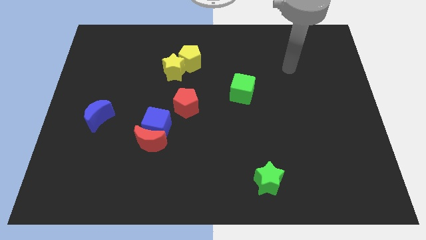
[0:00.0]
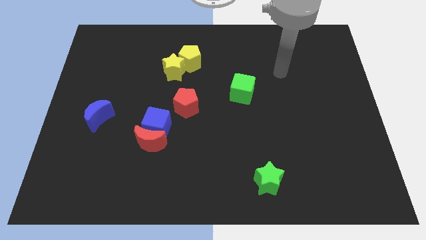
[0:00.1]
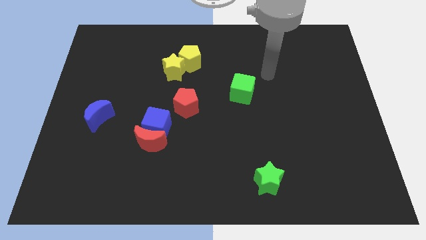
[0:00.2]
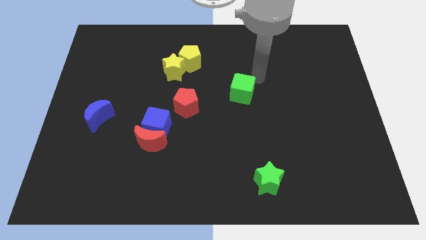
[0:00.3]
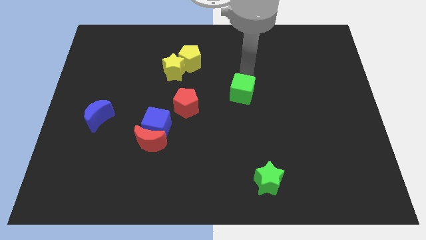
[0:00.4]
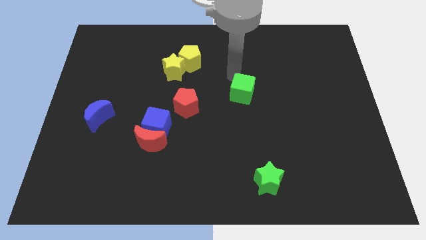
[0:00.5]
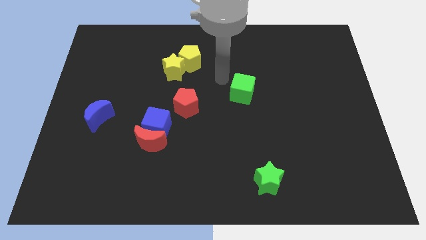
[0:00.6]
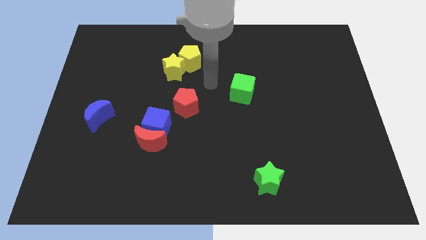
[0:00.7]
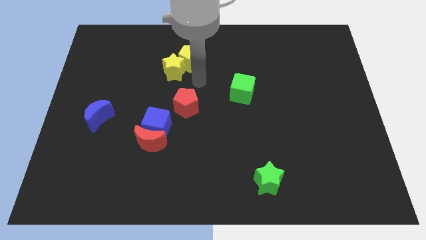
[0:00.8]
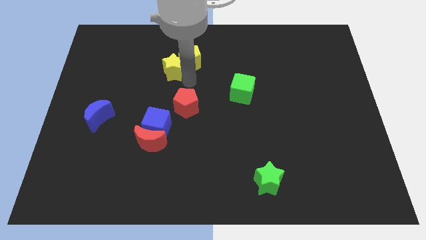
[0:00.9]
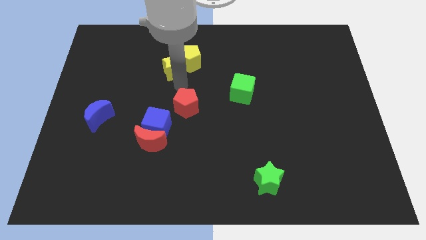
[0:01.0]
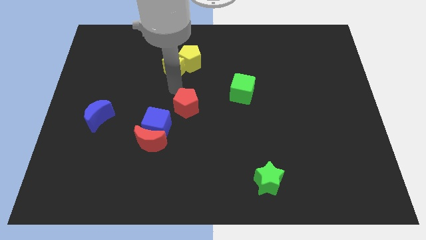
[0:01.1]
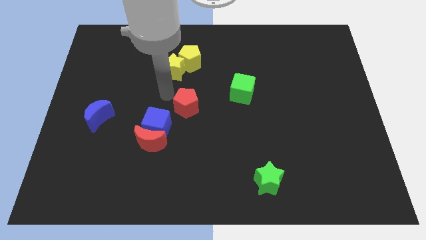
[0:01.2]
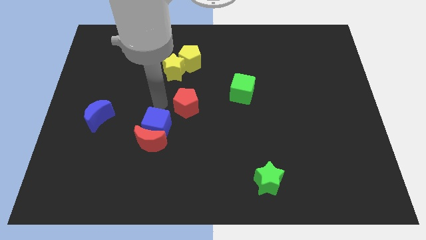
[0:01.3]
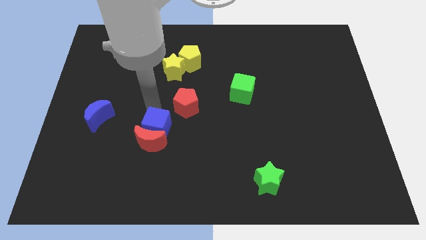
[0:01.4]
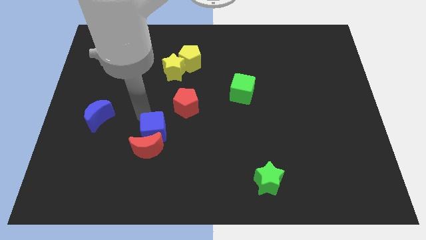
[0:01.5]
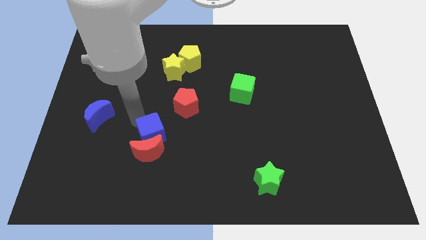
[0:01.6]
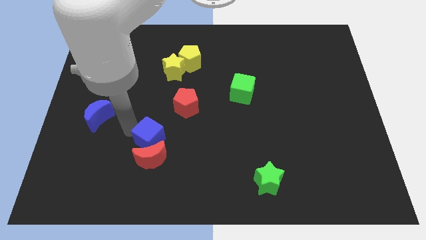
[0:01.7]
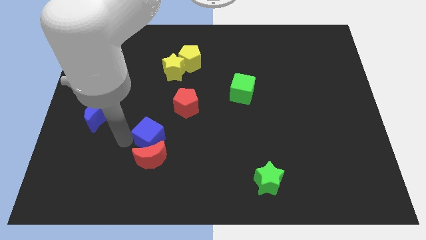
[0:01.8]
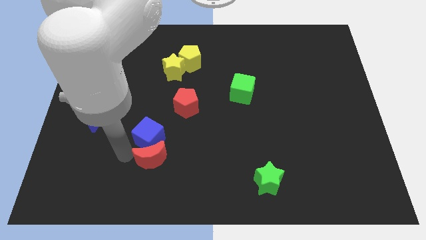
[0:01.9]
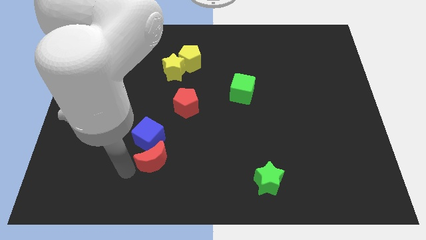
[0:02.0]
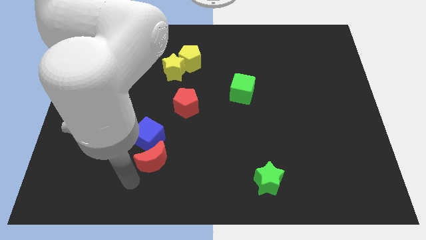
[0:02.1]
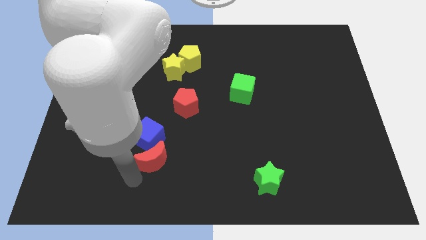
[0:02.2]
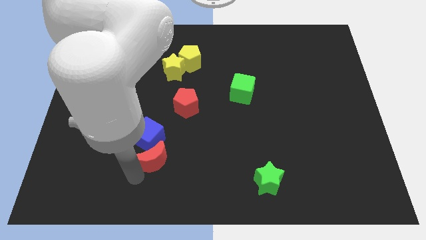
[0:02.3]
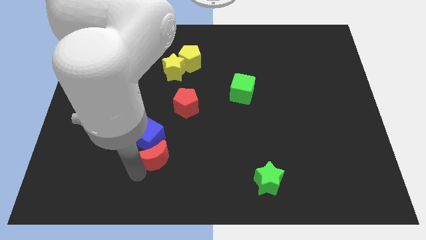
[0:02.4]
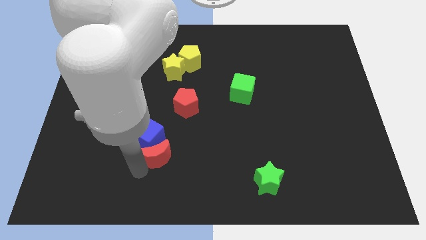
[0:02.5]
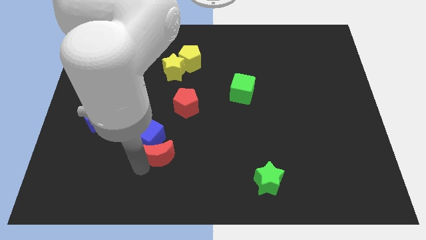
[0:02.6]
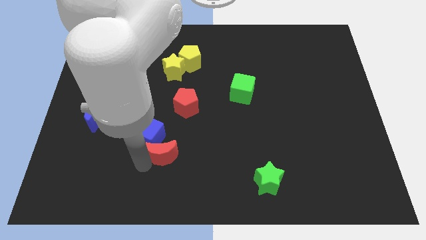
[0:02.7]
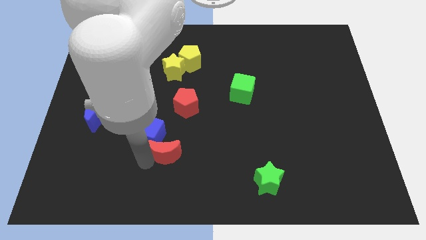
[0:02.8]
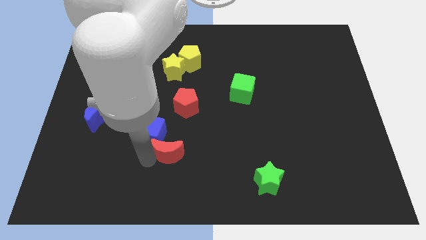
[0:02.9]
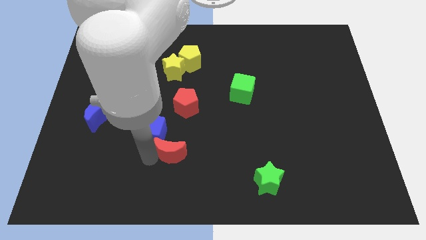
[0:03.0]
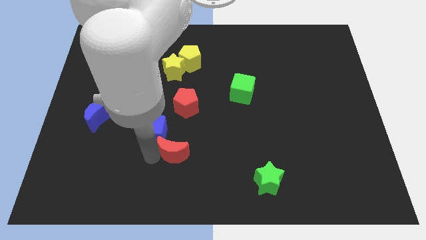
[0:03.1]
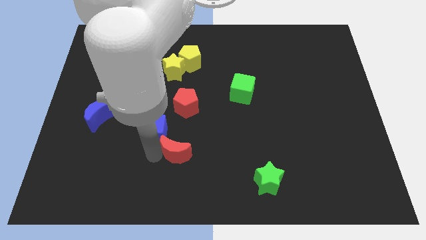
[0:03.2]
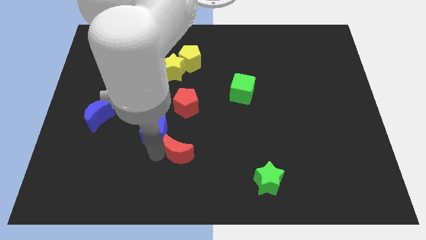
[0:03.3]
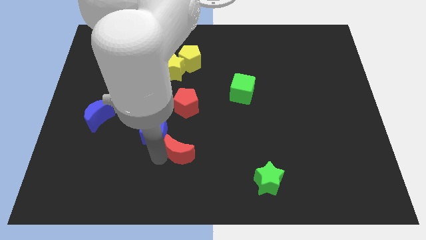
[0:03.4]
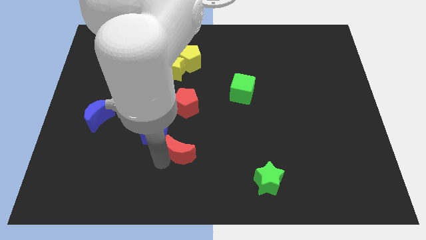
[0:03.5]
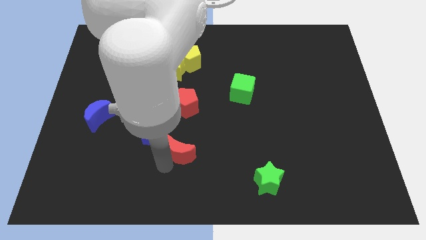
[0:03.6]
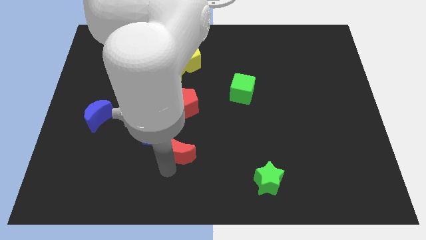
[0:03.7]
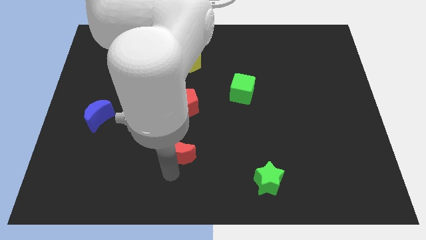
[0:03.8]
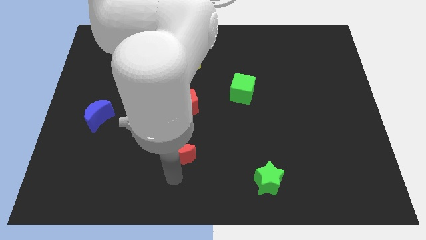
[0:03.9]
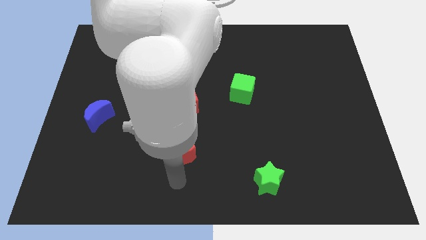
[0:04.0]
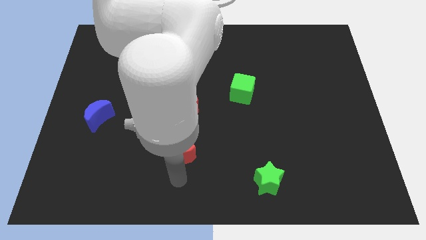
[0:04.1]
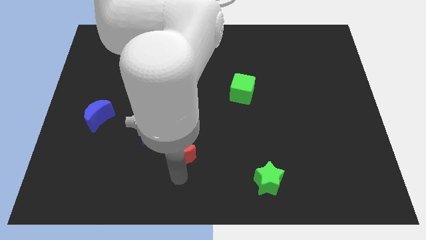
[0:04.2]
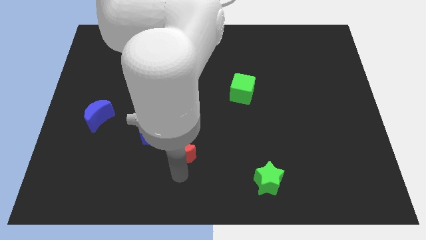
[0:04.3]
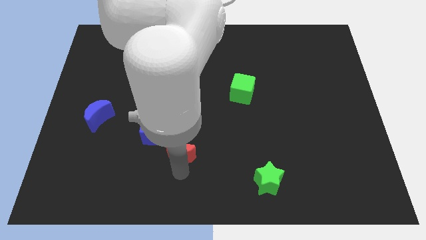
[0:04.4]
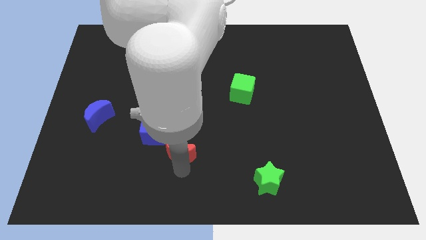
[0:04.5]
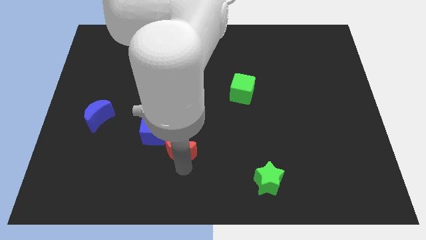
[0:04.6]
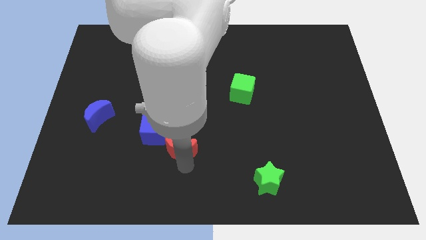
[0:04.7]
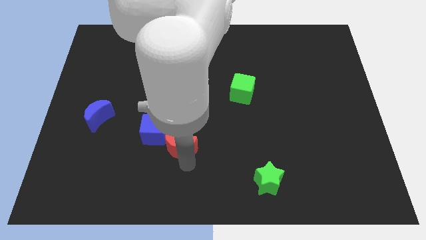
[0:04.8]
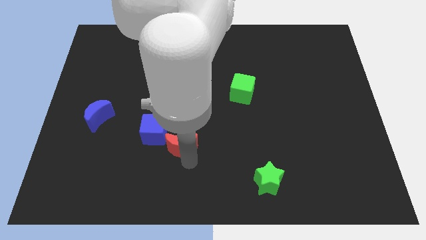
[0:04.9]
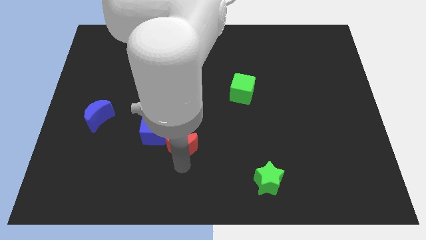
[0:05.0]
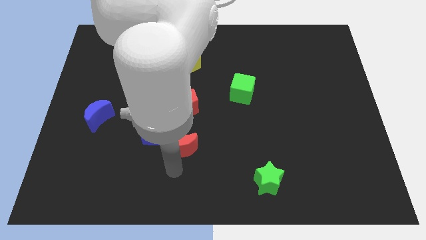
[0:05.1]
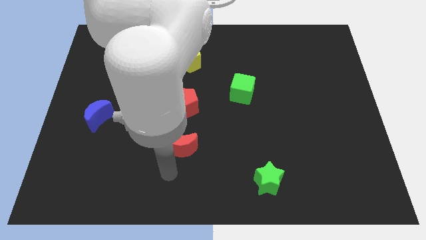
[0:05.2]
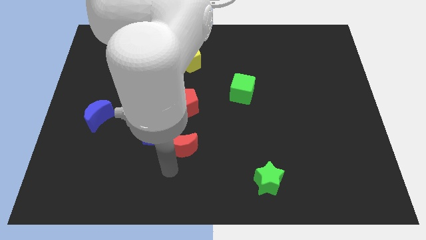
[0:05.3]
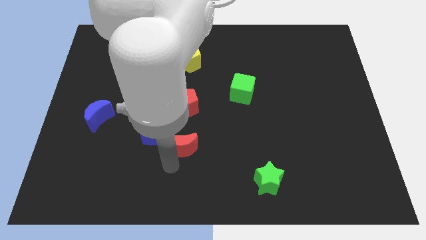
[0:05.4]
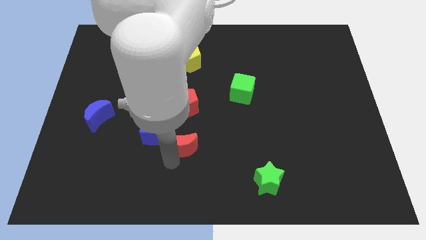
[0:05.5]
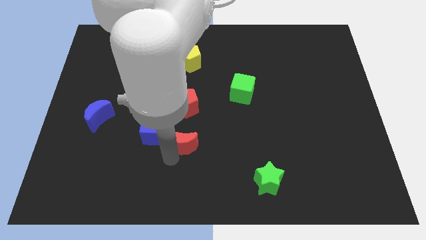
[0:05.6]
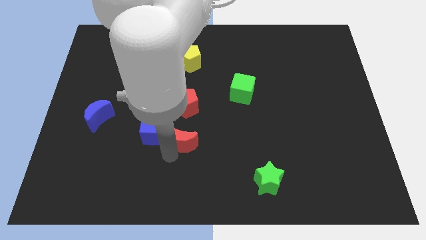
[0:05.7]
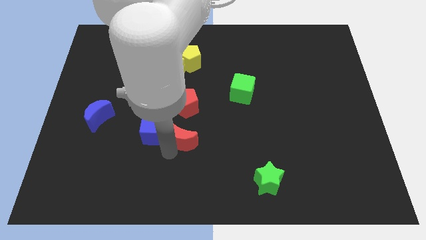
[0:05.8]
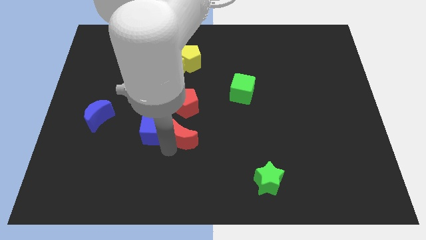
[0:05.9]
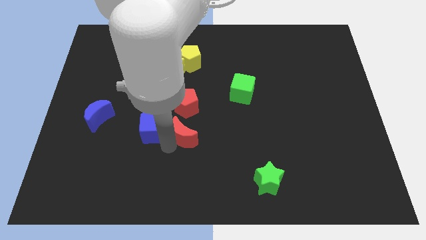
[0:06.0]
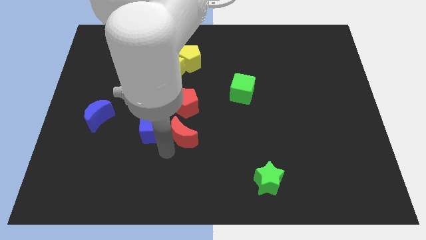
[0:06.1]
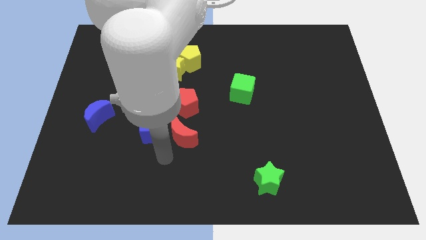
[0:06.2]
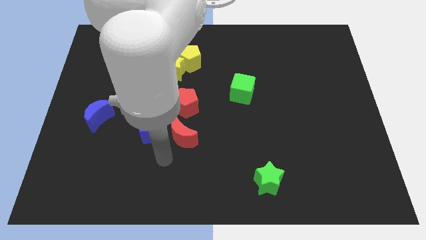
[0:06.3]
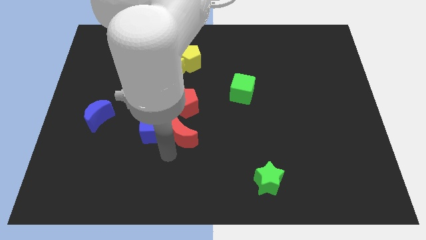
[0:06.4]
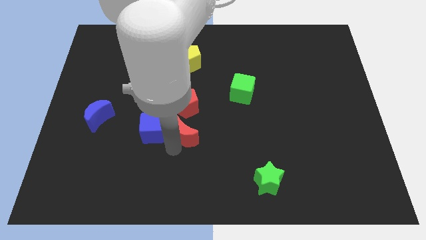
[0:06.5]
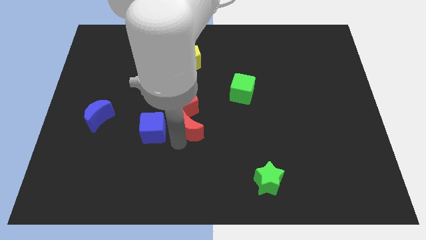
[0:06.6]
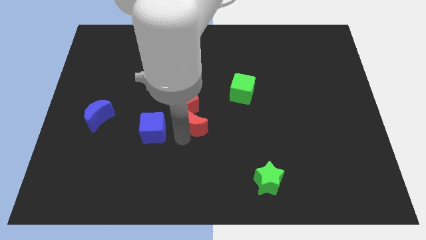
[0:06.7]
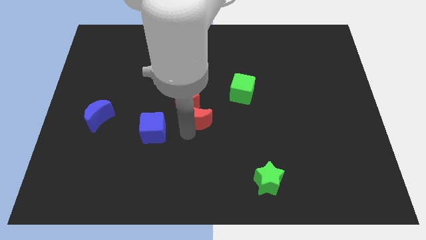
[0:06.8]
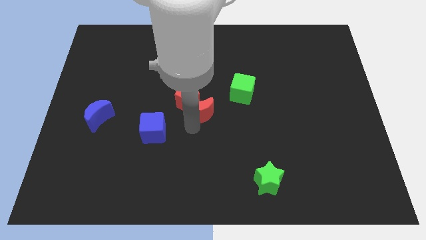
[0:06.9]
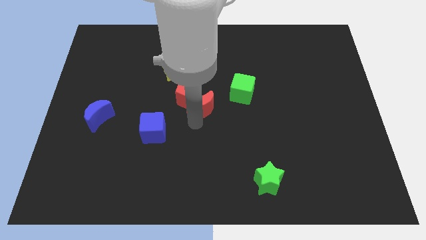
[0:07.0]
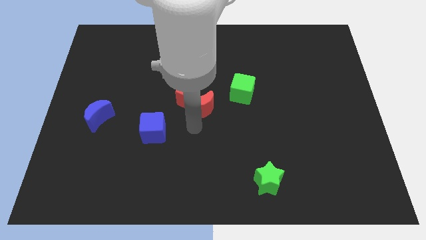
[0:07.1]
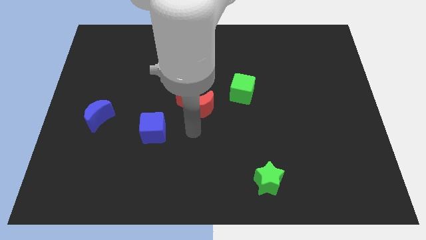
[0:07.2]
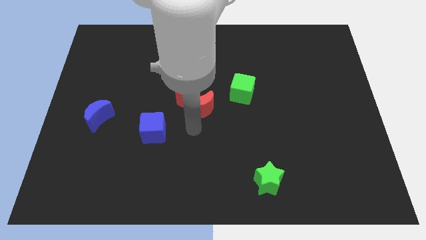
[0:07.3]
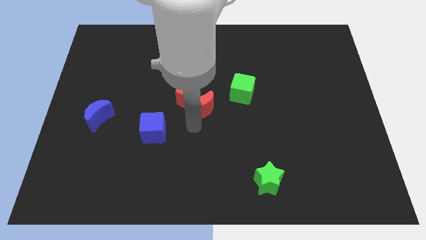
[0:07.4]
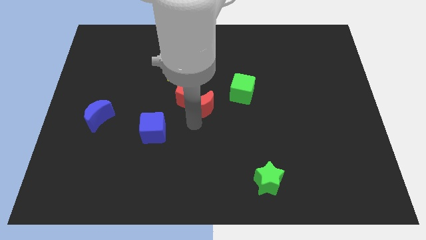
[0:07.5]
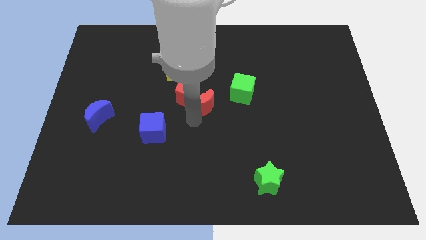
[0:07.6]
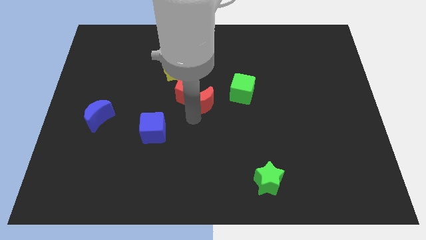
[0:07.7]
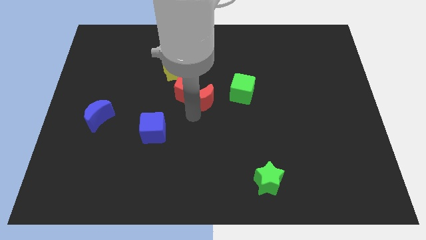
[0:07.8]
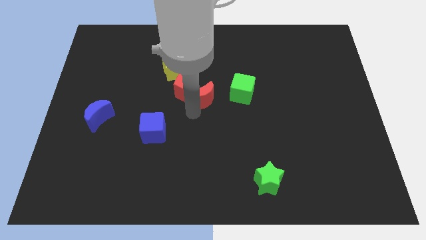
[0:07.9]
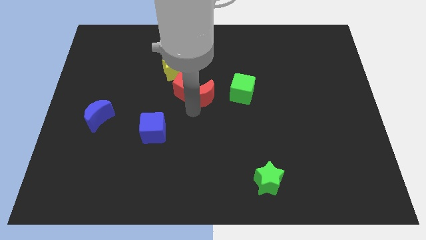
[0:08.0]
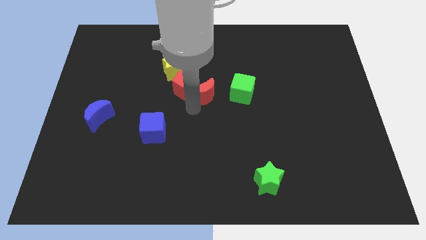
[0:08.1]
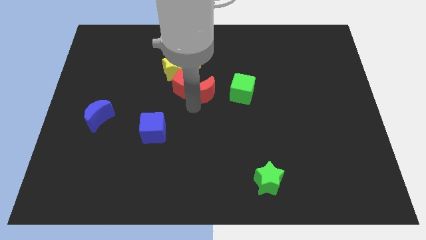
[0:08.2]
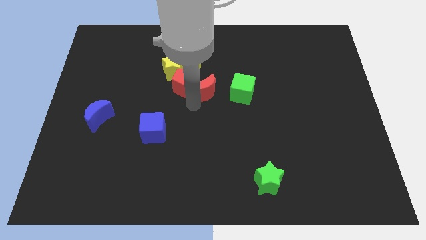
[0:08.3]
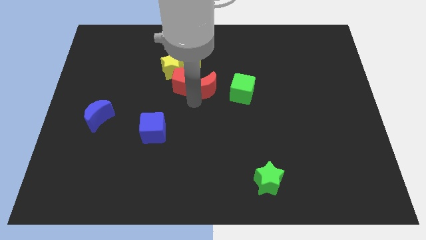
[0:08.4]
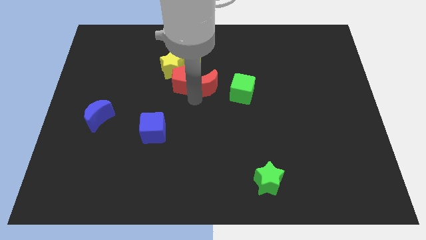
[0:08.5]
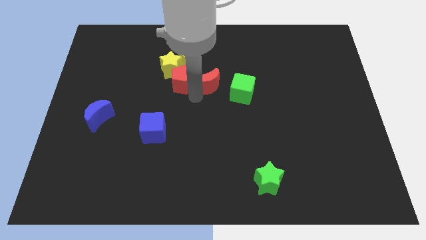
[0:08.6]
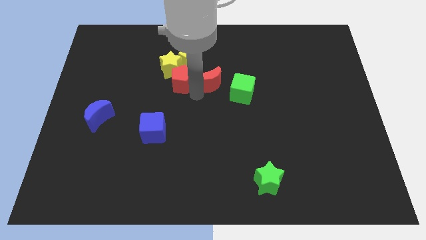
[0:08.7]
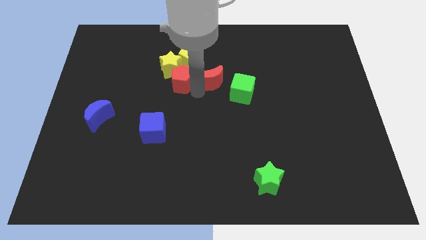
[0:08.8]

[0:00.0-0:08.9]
slide the red moon to the right side of the yellow star
